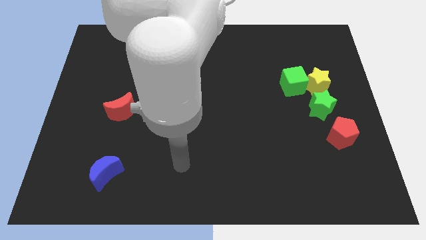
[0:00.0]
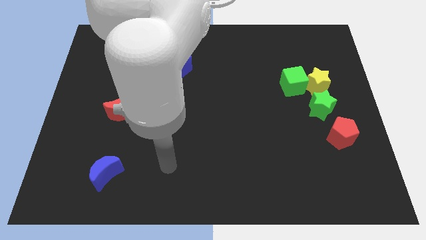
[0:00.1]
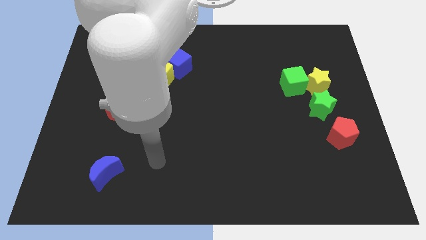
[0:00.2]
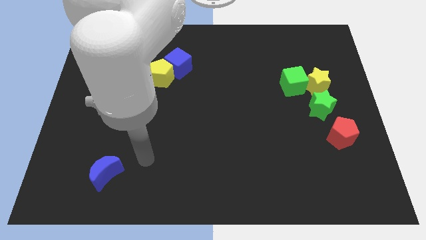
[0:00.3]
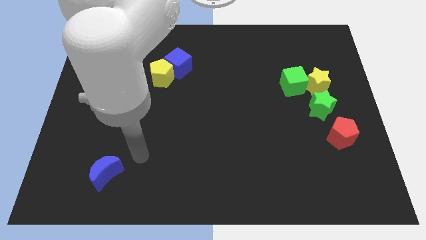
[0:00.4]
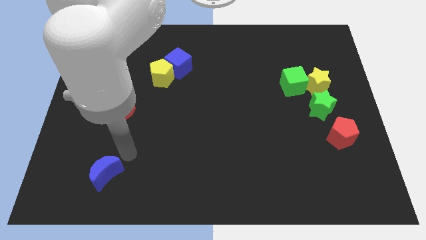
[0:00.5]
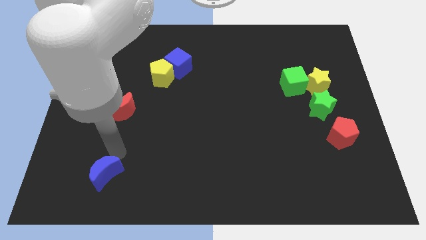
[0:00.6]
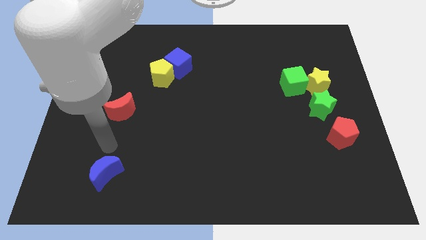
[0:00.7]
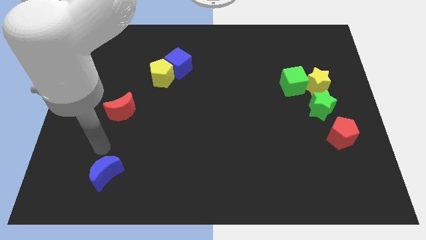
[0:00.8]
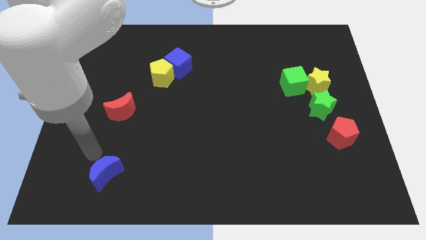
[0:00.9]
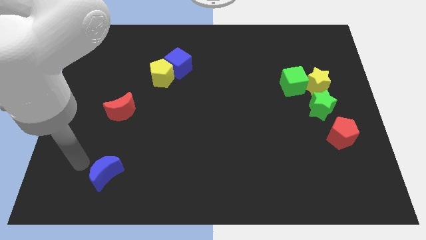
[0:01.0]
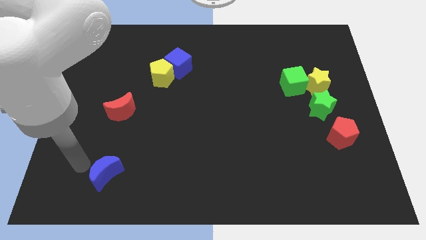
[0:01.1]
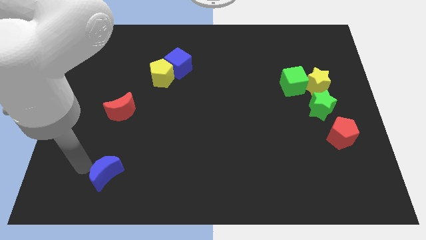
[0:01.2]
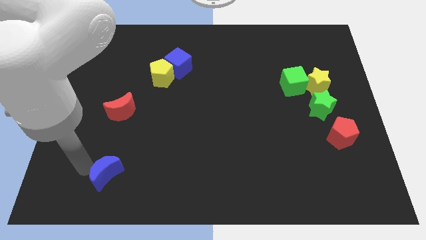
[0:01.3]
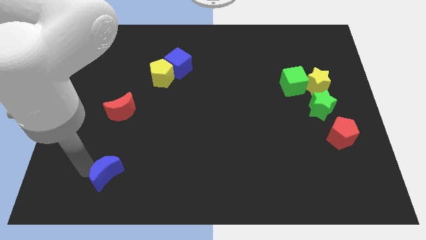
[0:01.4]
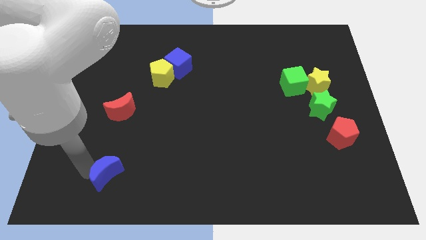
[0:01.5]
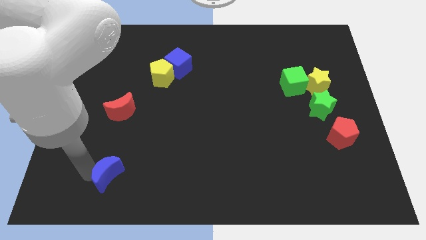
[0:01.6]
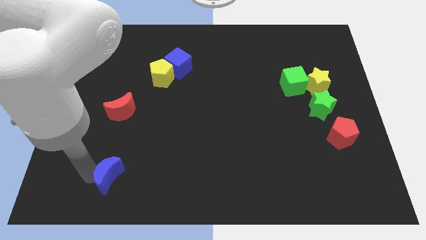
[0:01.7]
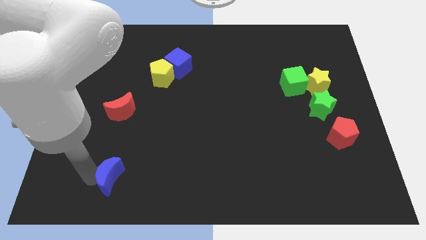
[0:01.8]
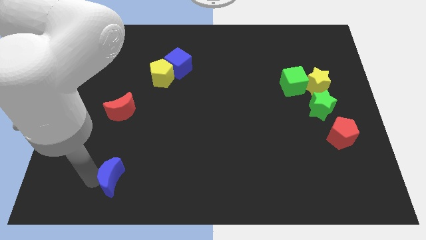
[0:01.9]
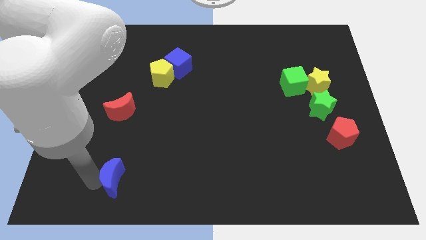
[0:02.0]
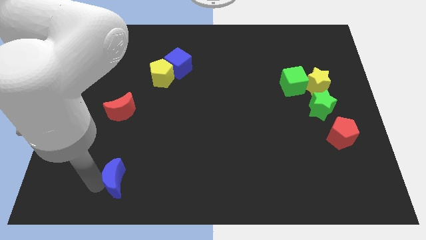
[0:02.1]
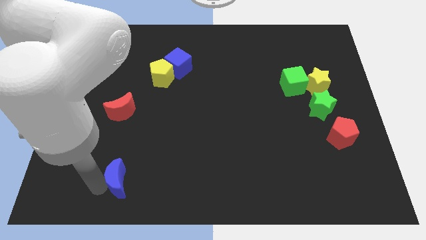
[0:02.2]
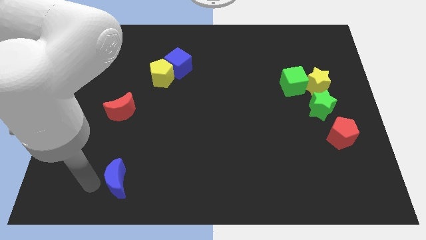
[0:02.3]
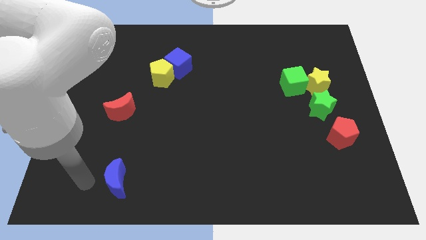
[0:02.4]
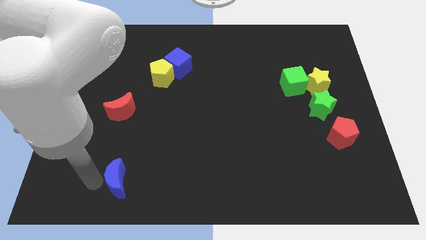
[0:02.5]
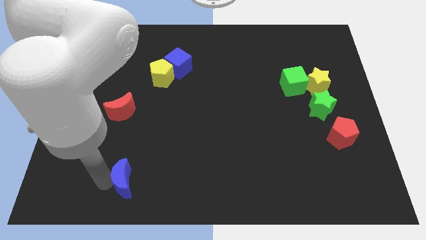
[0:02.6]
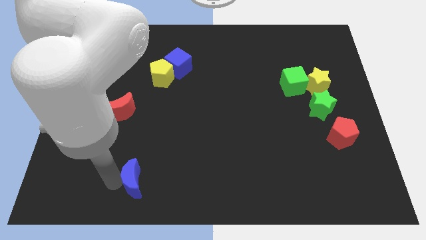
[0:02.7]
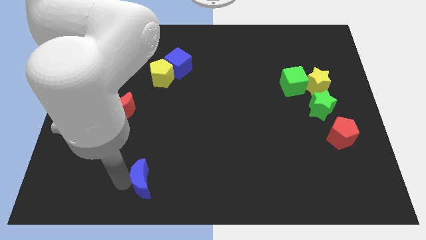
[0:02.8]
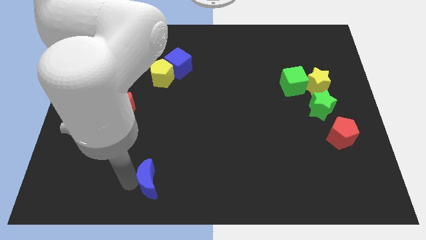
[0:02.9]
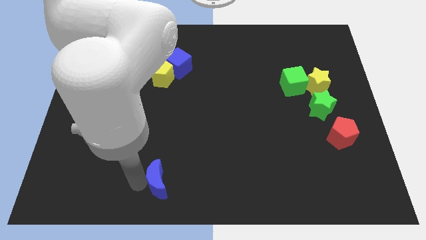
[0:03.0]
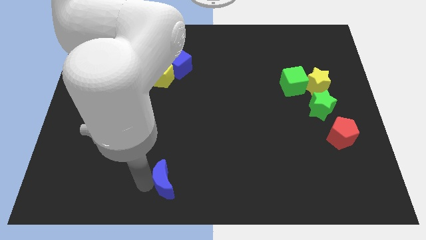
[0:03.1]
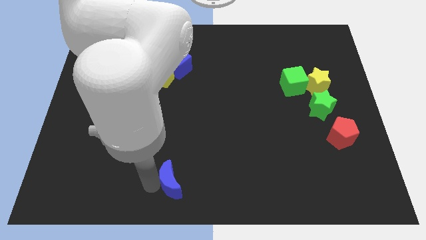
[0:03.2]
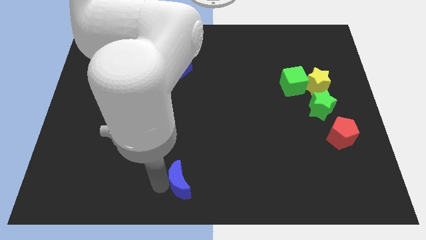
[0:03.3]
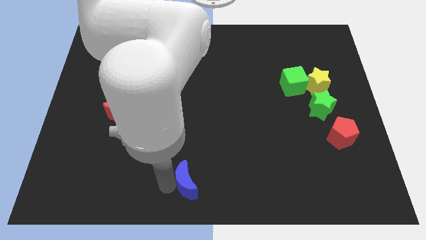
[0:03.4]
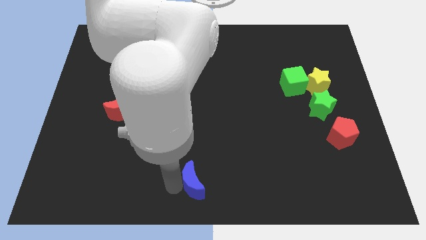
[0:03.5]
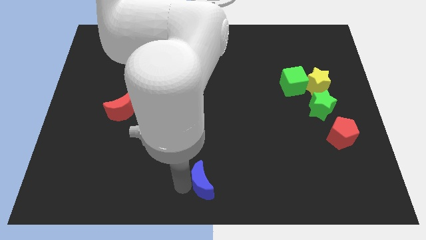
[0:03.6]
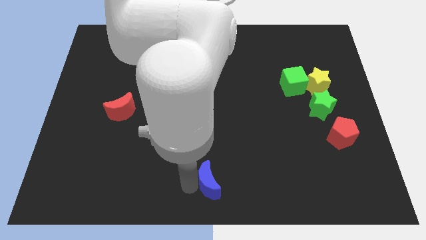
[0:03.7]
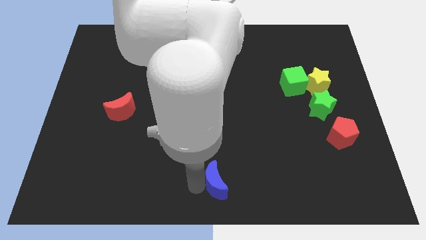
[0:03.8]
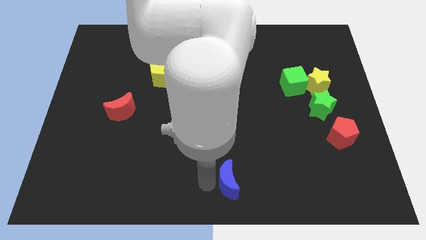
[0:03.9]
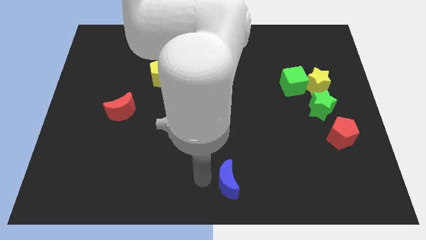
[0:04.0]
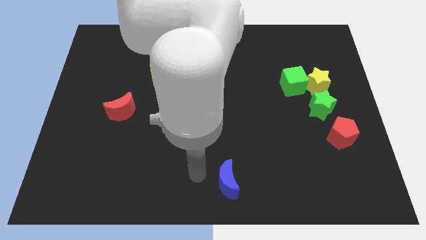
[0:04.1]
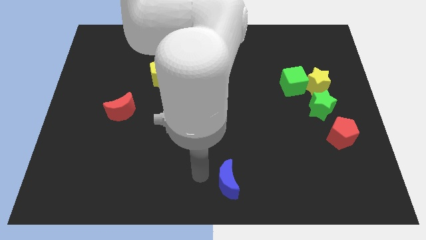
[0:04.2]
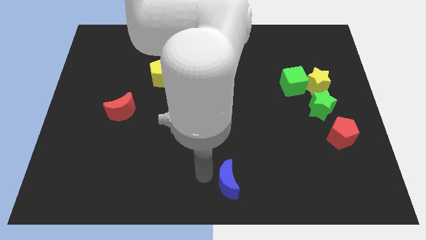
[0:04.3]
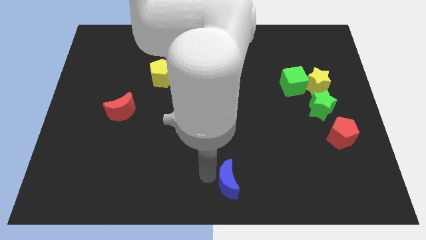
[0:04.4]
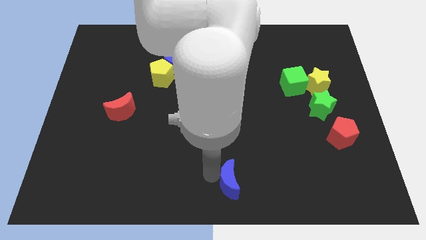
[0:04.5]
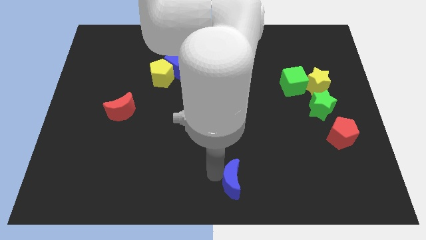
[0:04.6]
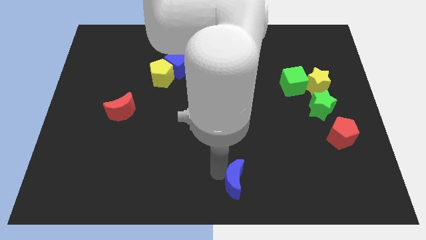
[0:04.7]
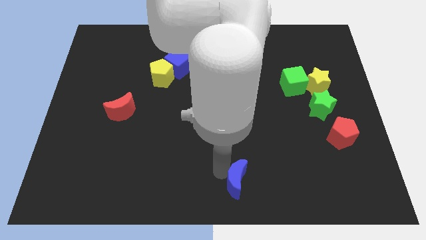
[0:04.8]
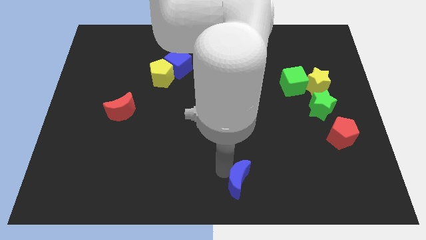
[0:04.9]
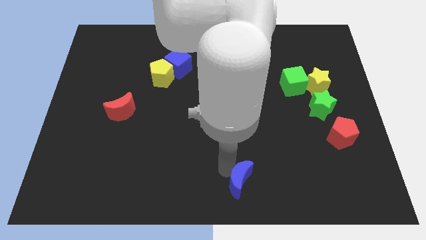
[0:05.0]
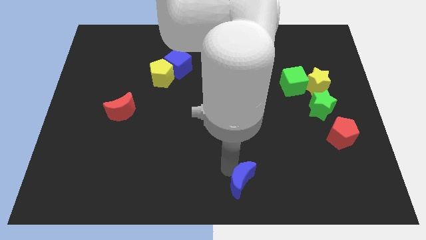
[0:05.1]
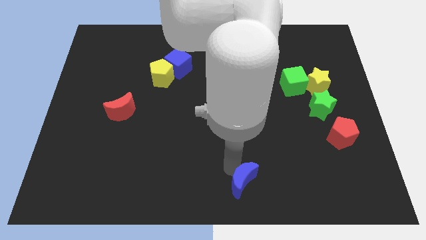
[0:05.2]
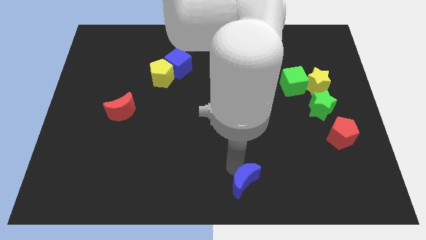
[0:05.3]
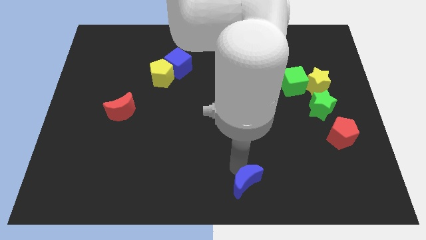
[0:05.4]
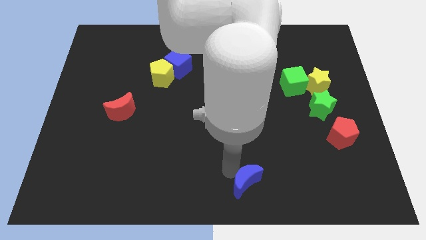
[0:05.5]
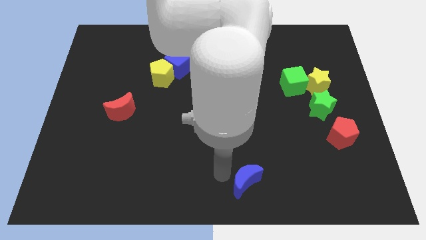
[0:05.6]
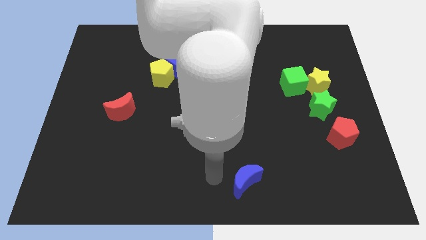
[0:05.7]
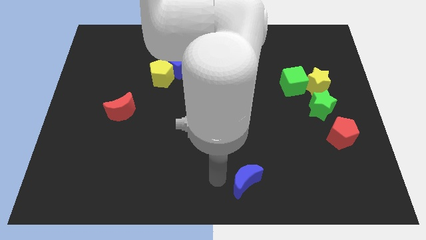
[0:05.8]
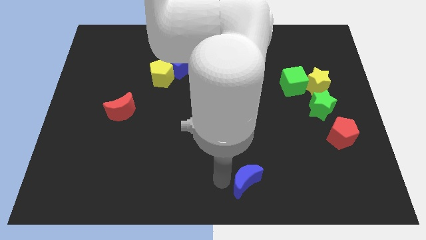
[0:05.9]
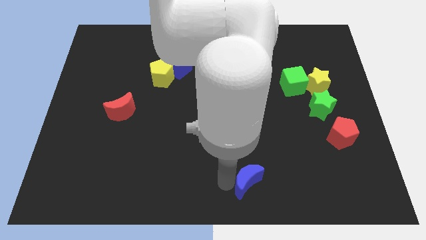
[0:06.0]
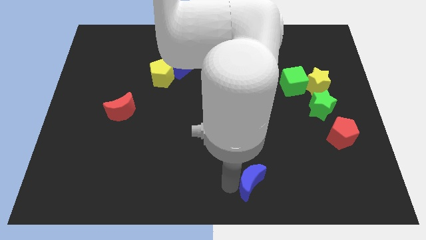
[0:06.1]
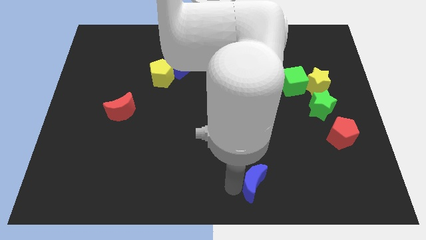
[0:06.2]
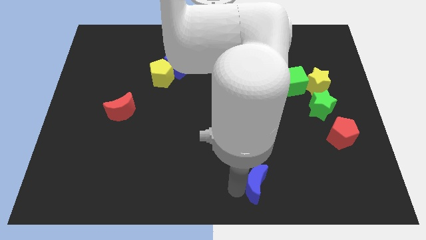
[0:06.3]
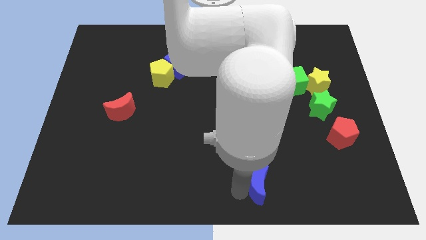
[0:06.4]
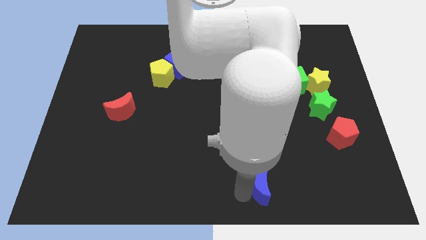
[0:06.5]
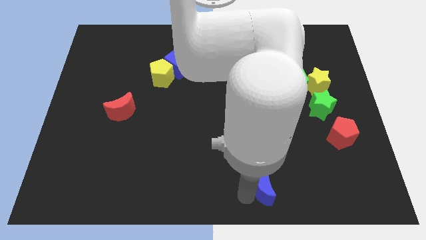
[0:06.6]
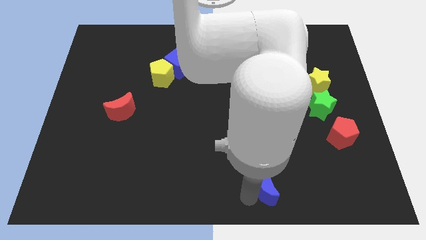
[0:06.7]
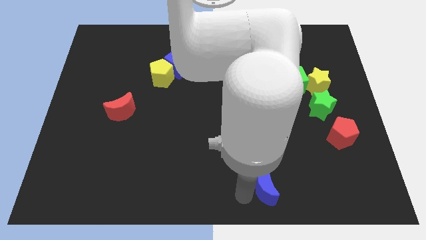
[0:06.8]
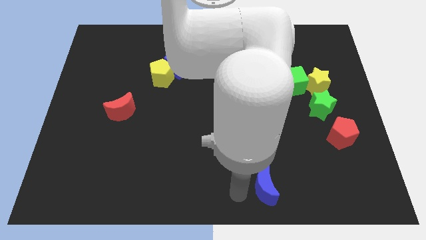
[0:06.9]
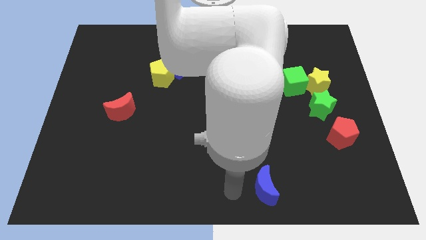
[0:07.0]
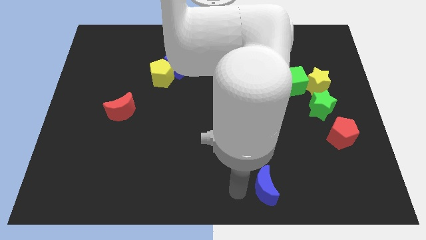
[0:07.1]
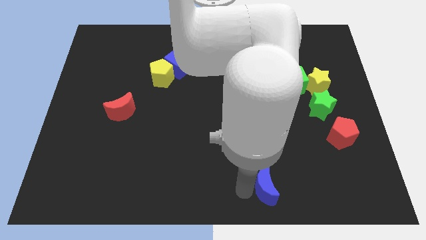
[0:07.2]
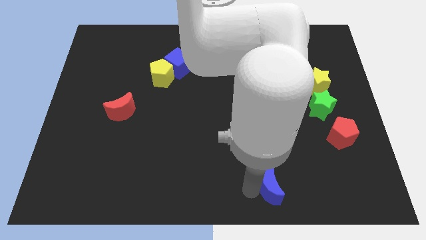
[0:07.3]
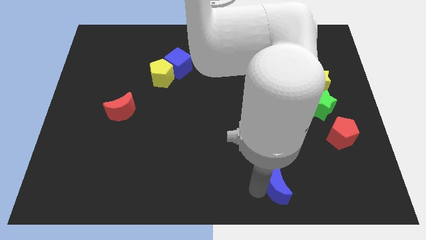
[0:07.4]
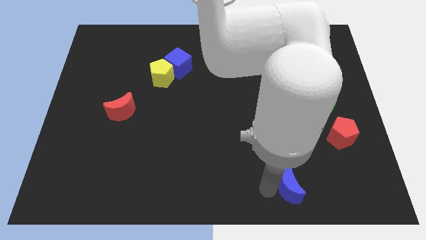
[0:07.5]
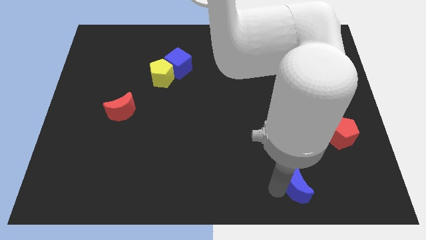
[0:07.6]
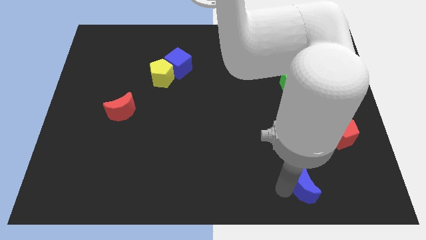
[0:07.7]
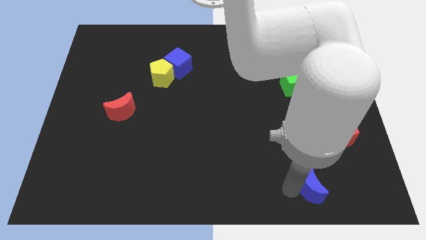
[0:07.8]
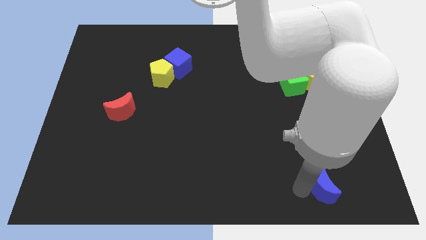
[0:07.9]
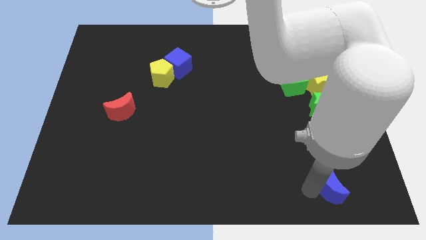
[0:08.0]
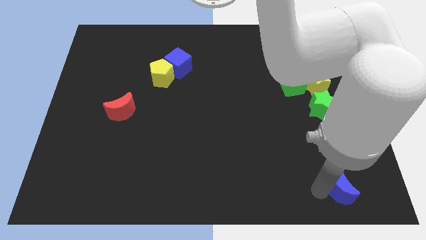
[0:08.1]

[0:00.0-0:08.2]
push the blue moon to the bottom side of the red pentagon

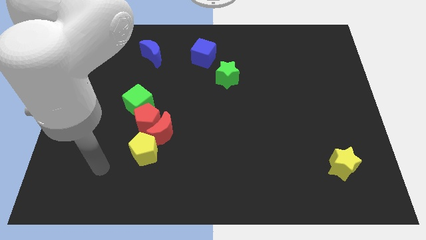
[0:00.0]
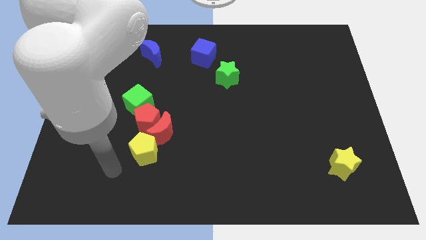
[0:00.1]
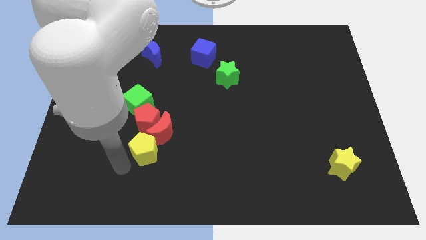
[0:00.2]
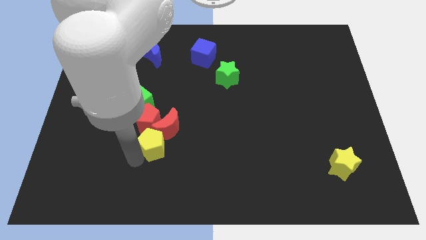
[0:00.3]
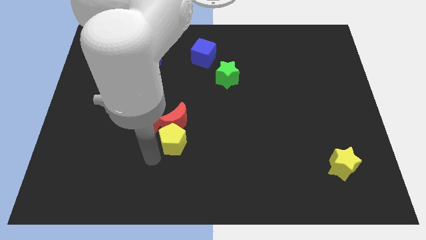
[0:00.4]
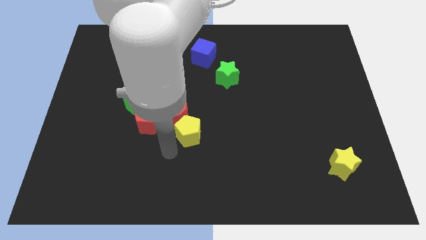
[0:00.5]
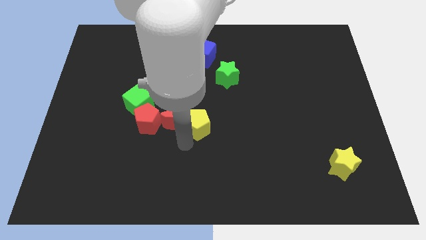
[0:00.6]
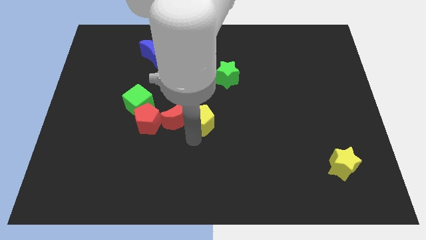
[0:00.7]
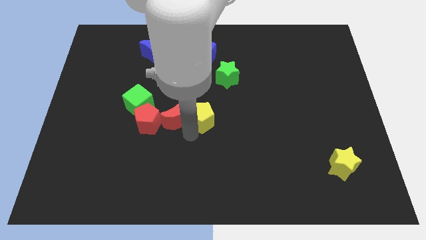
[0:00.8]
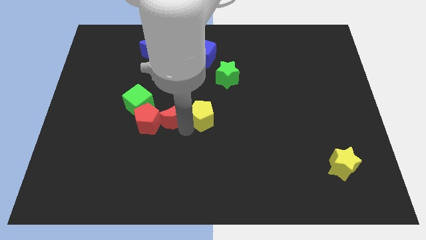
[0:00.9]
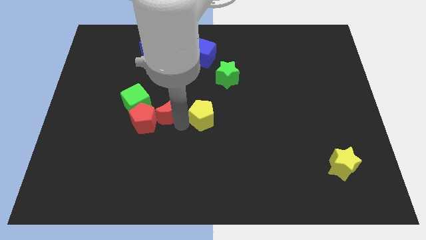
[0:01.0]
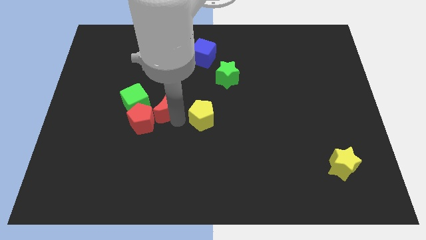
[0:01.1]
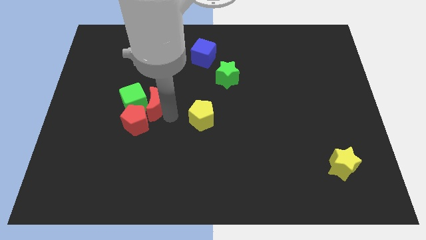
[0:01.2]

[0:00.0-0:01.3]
move the red moon to the top right of the green cube
